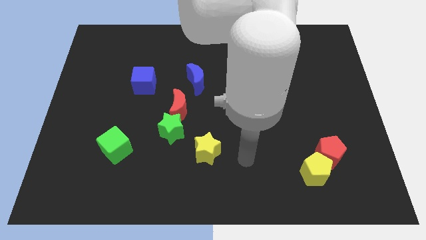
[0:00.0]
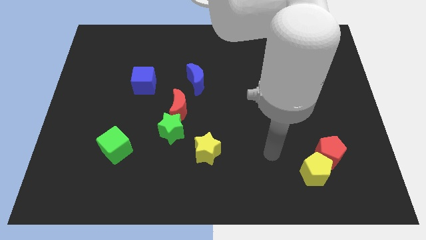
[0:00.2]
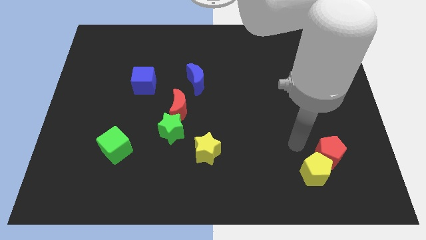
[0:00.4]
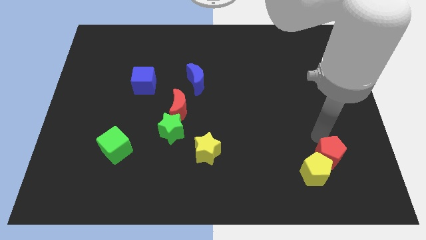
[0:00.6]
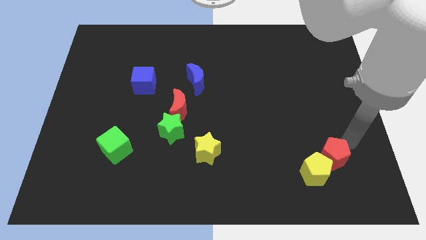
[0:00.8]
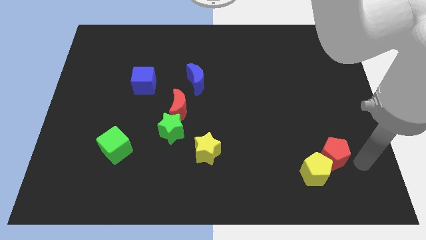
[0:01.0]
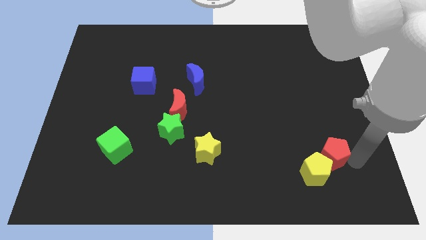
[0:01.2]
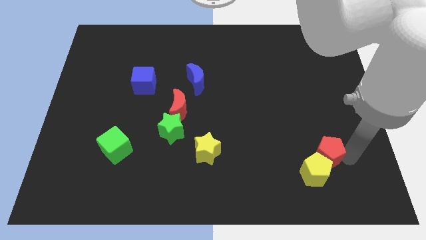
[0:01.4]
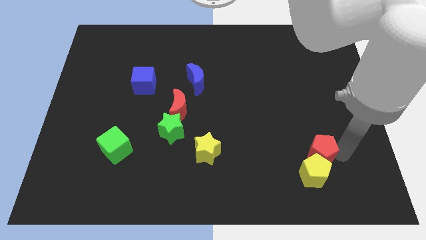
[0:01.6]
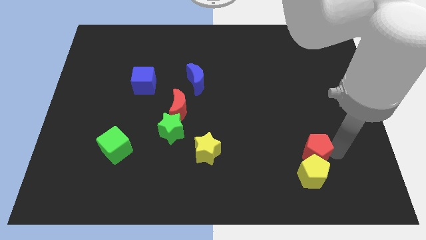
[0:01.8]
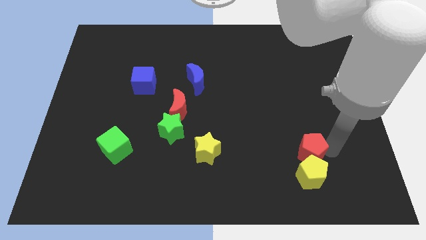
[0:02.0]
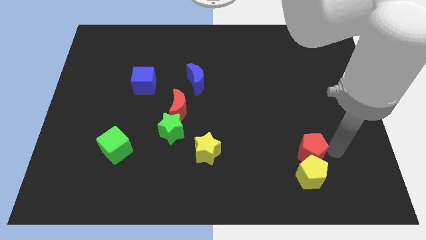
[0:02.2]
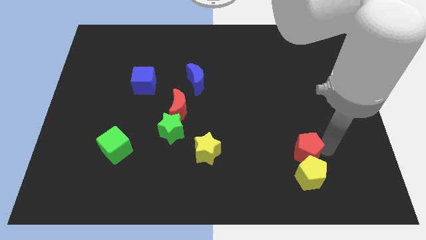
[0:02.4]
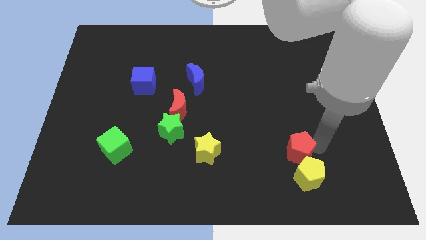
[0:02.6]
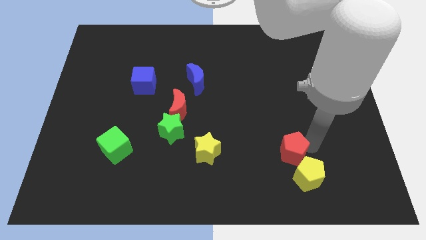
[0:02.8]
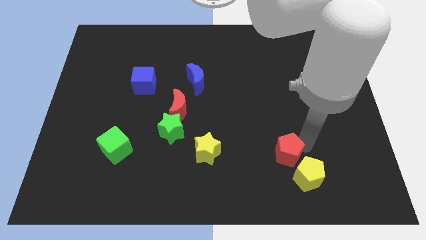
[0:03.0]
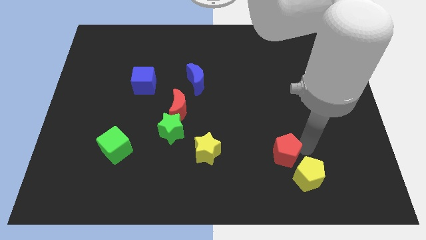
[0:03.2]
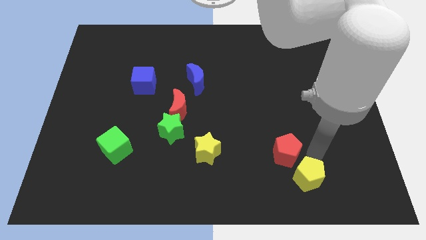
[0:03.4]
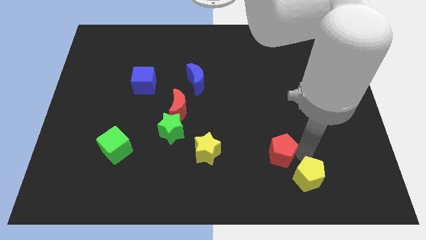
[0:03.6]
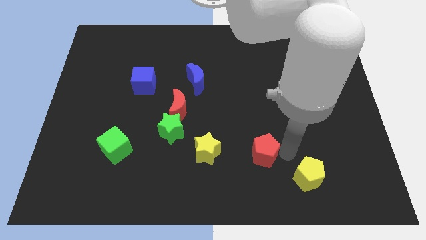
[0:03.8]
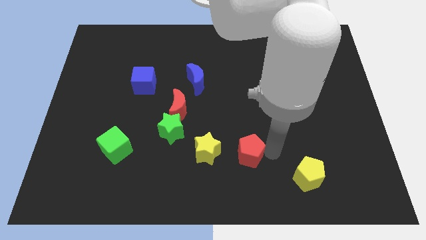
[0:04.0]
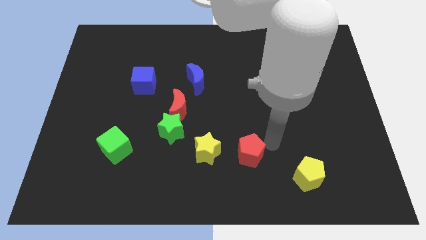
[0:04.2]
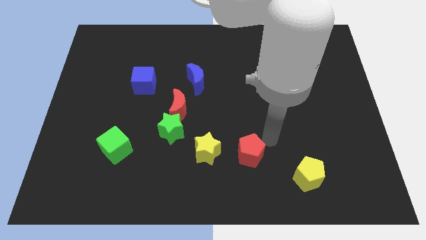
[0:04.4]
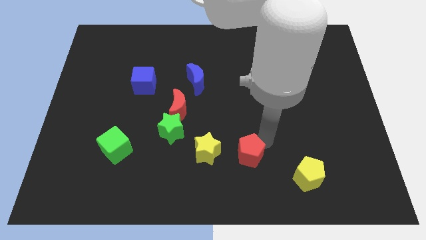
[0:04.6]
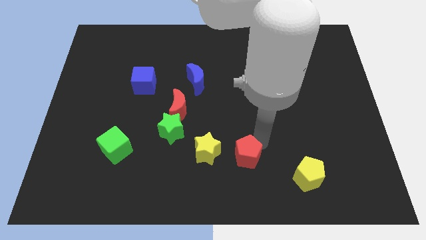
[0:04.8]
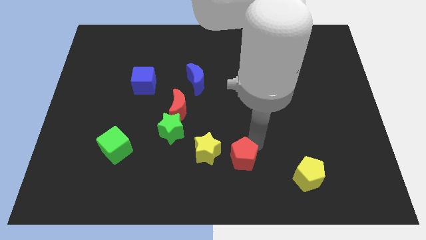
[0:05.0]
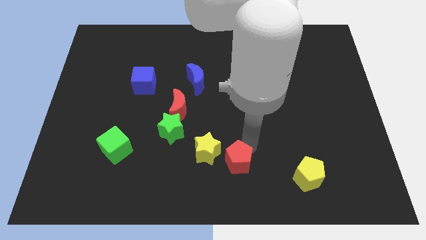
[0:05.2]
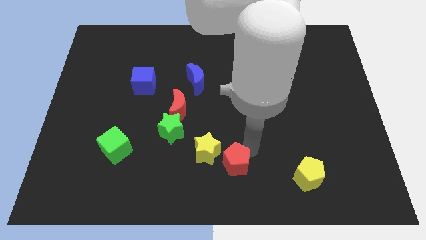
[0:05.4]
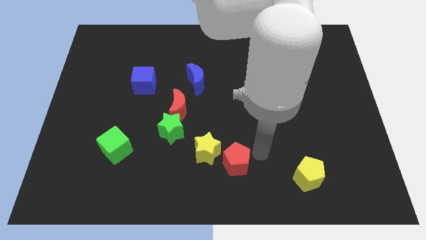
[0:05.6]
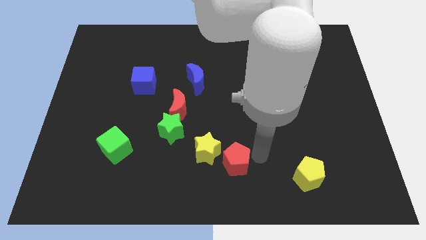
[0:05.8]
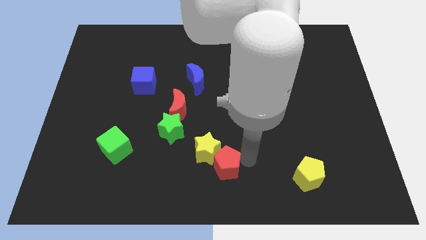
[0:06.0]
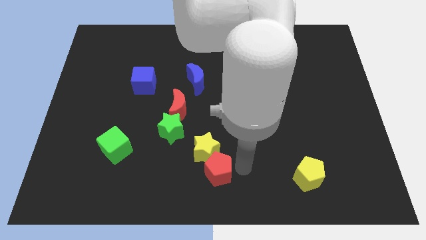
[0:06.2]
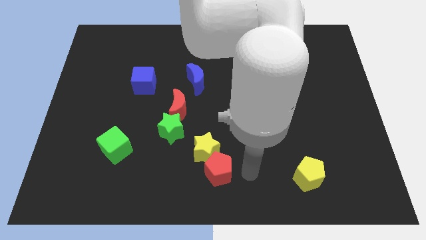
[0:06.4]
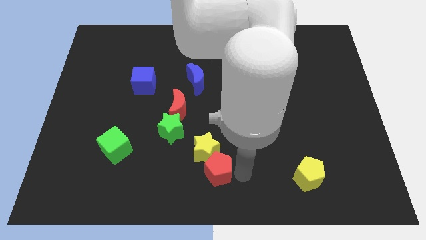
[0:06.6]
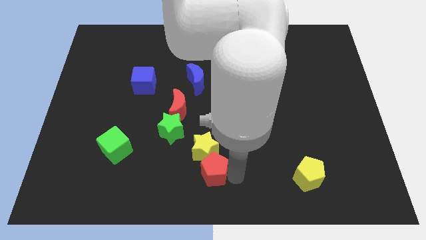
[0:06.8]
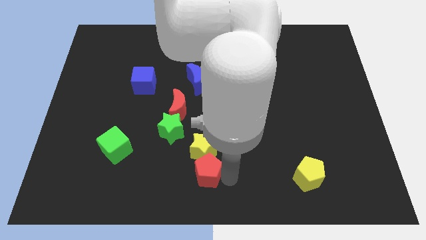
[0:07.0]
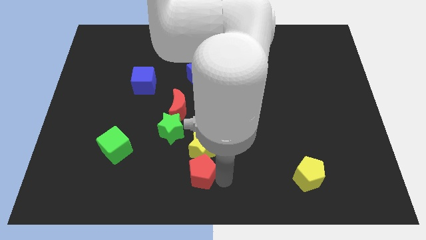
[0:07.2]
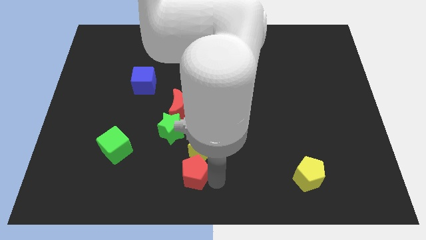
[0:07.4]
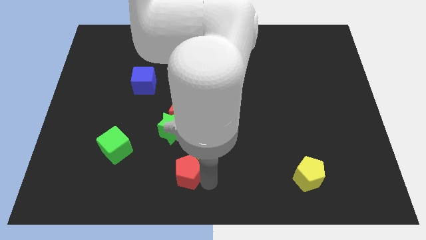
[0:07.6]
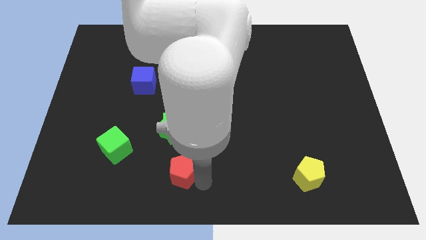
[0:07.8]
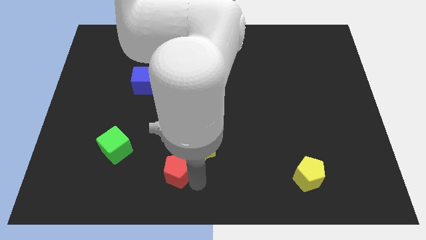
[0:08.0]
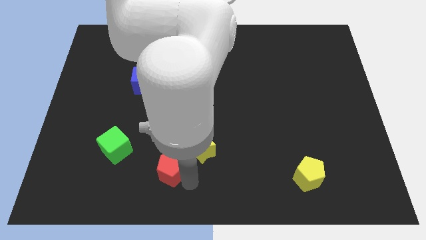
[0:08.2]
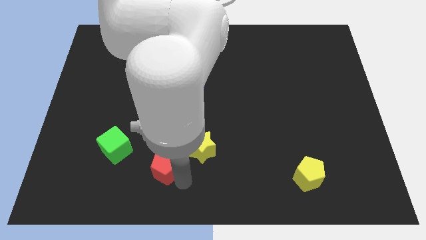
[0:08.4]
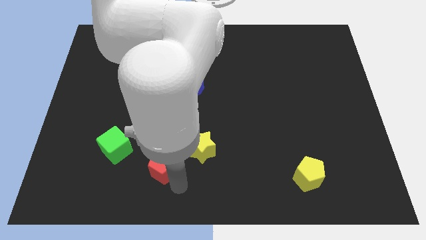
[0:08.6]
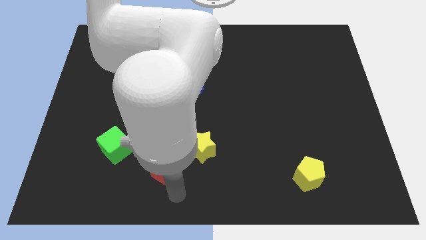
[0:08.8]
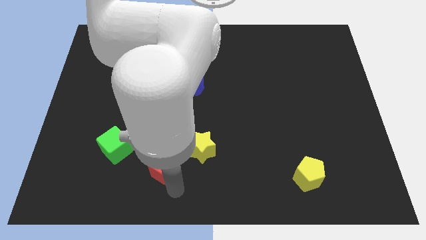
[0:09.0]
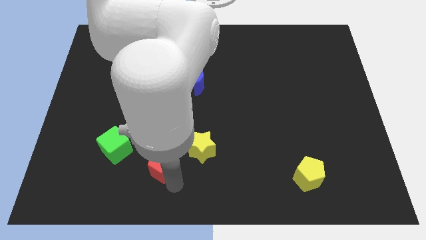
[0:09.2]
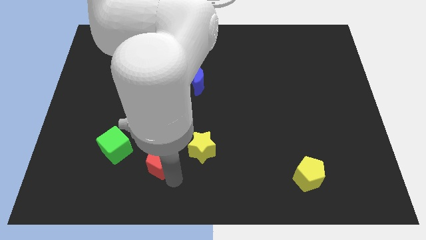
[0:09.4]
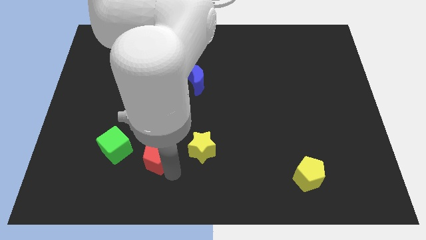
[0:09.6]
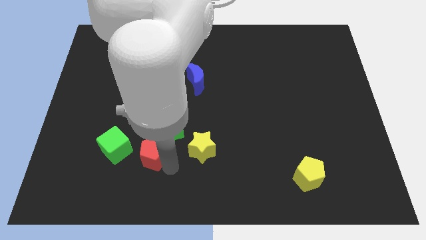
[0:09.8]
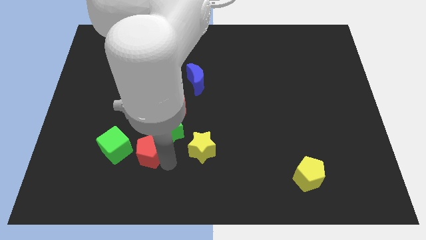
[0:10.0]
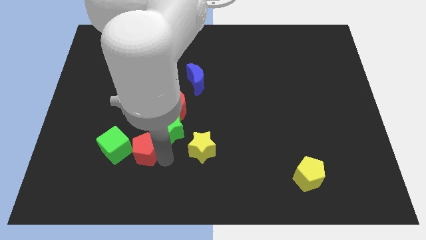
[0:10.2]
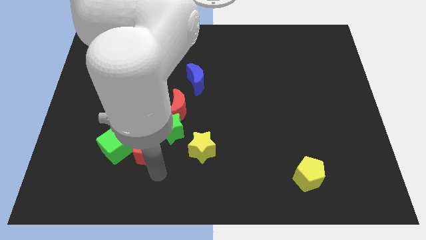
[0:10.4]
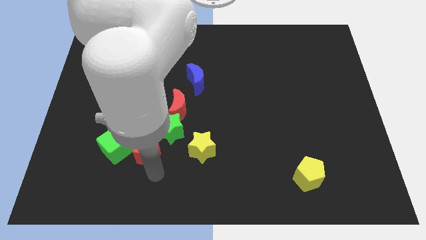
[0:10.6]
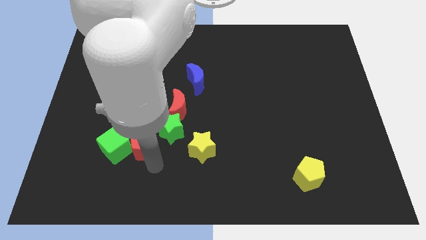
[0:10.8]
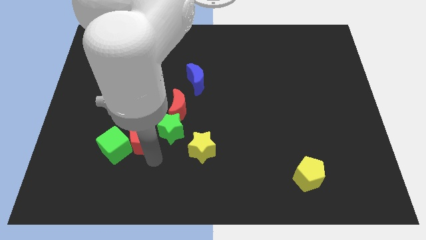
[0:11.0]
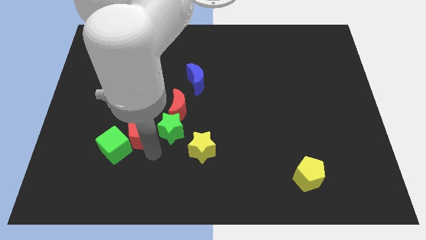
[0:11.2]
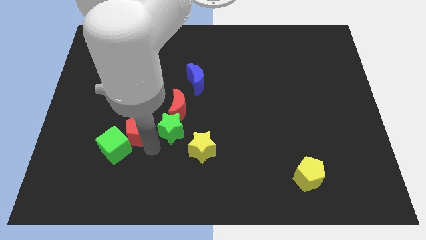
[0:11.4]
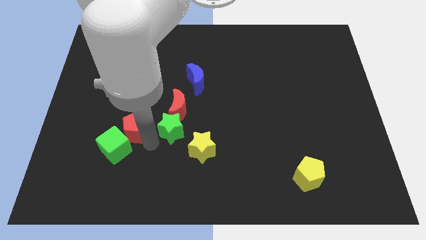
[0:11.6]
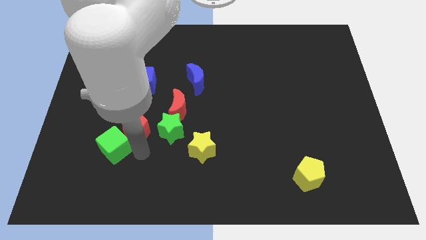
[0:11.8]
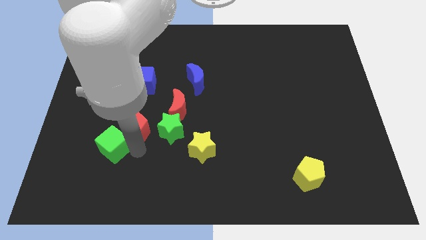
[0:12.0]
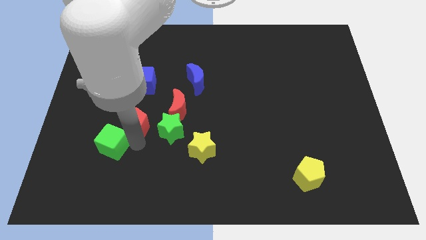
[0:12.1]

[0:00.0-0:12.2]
push the red pentagon just left of the red moon

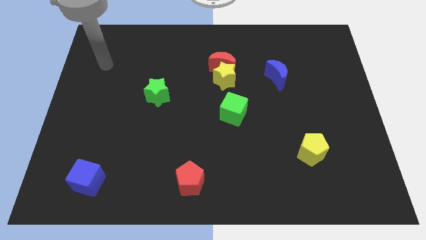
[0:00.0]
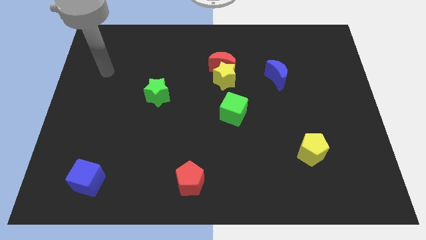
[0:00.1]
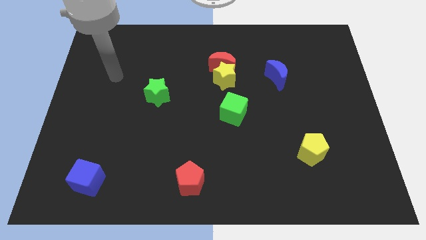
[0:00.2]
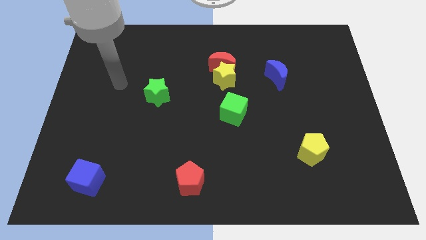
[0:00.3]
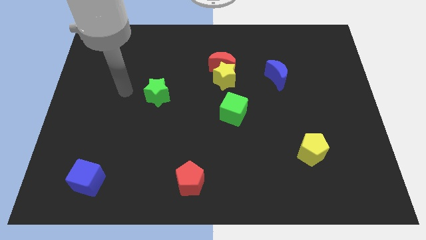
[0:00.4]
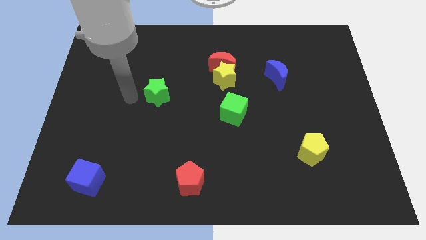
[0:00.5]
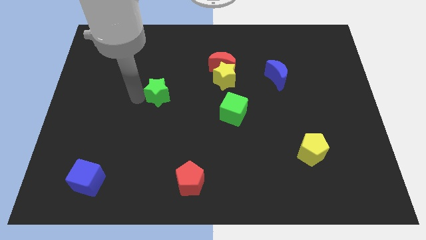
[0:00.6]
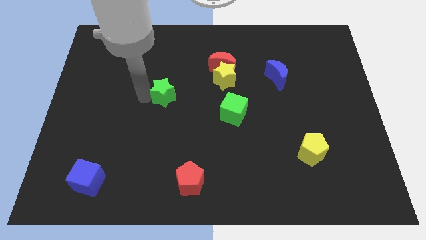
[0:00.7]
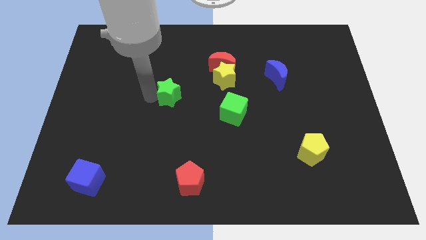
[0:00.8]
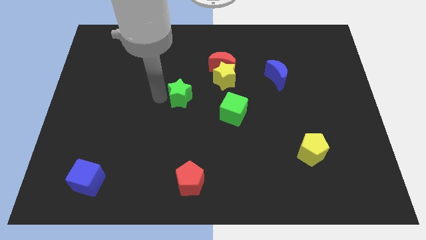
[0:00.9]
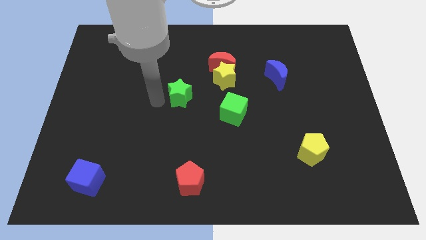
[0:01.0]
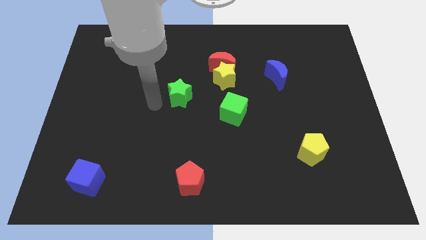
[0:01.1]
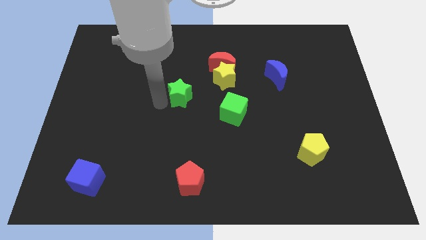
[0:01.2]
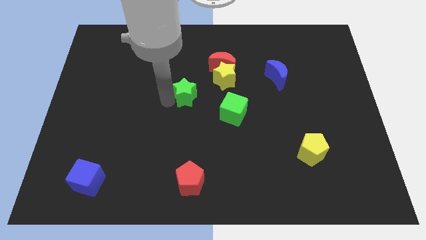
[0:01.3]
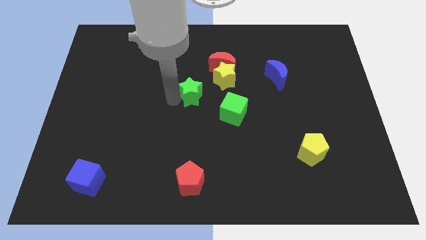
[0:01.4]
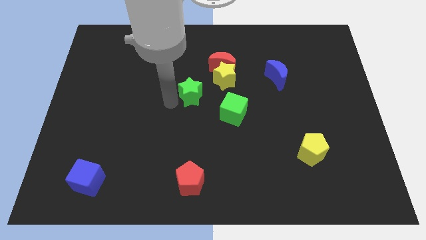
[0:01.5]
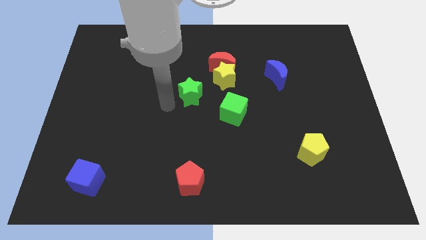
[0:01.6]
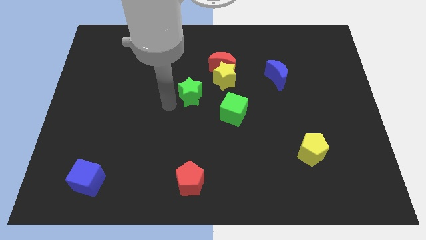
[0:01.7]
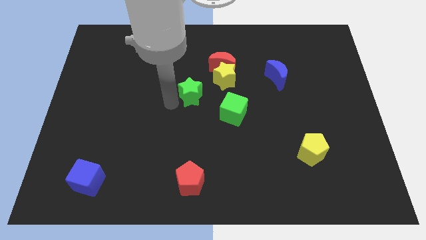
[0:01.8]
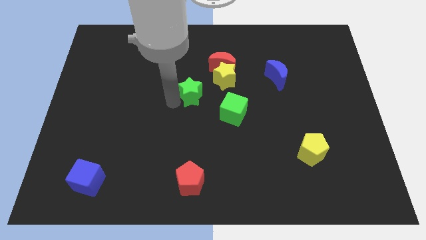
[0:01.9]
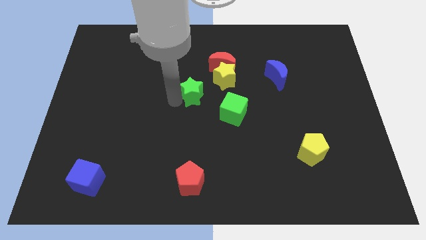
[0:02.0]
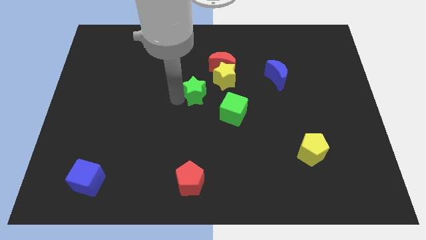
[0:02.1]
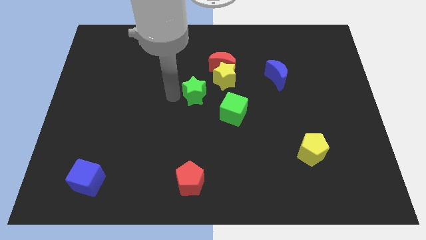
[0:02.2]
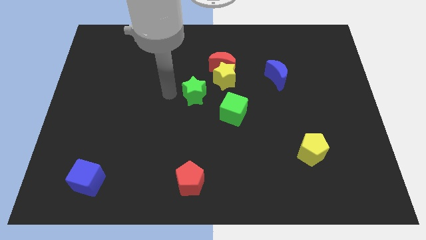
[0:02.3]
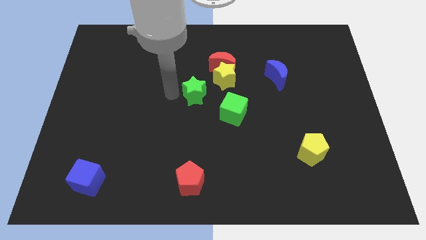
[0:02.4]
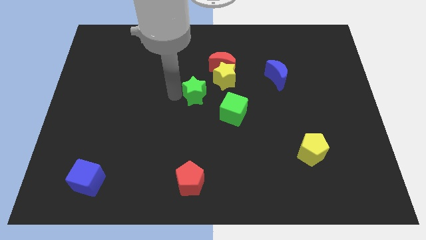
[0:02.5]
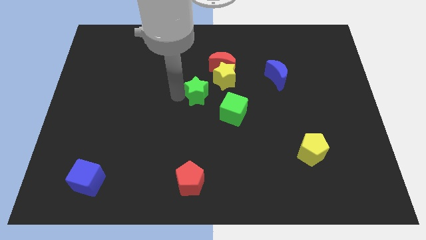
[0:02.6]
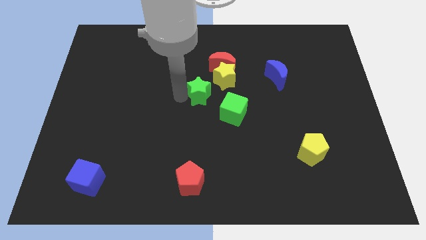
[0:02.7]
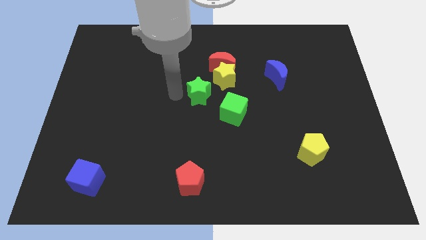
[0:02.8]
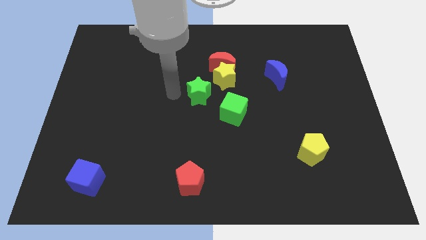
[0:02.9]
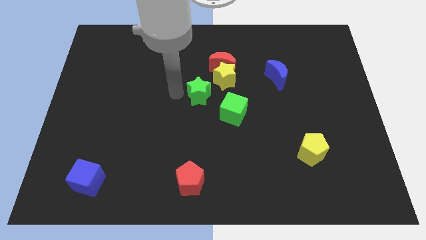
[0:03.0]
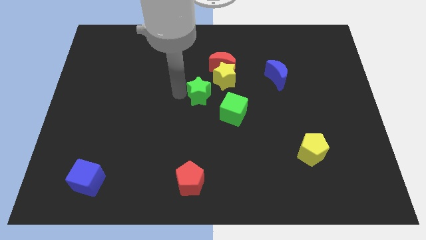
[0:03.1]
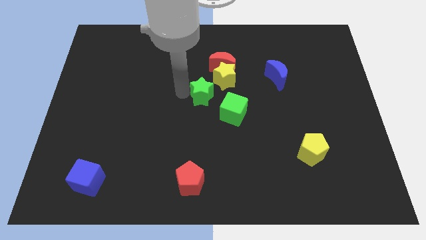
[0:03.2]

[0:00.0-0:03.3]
put the green star below the red moon
